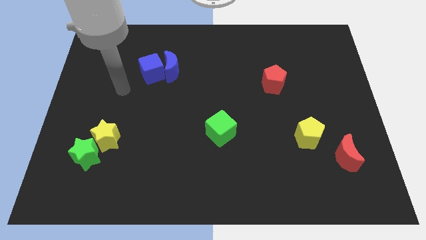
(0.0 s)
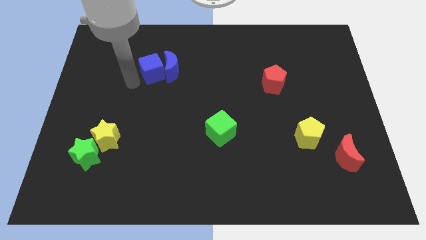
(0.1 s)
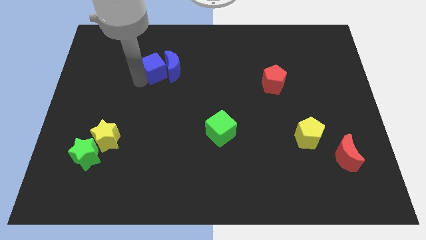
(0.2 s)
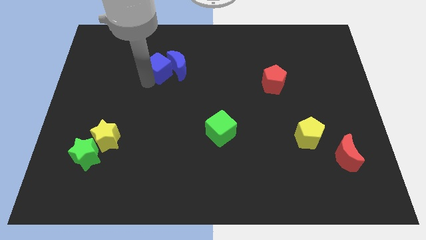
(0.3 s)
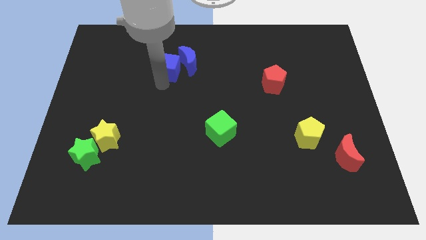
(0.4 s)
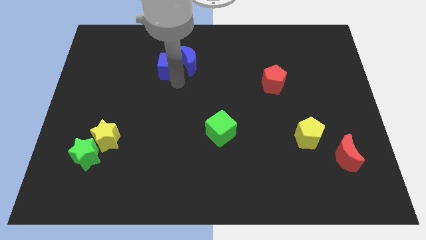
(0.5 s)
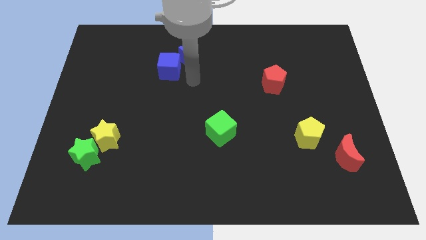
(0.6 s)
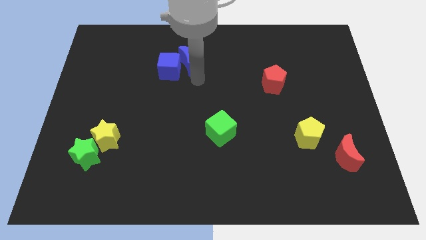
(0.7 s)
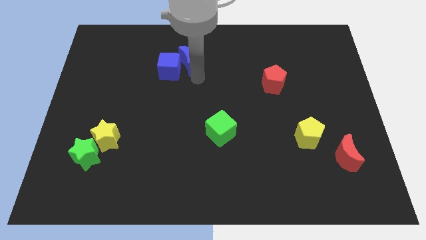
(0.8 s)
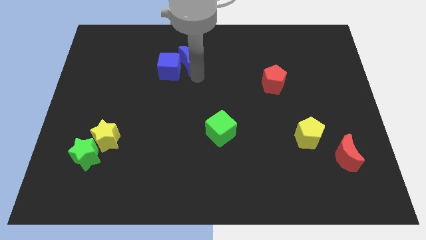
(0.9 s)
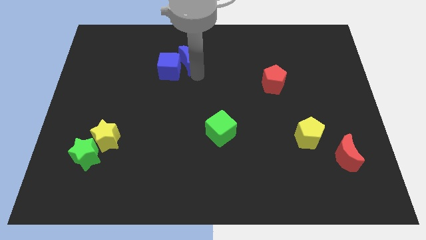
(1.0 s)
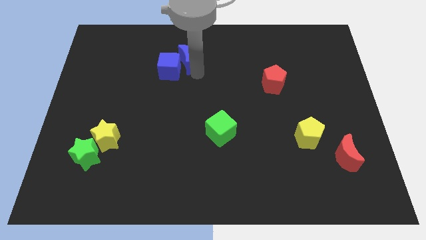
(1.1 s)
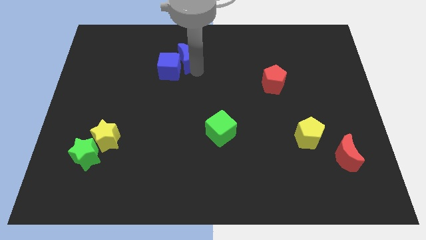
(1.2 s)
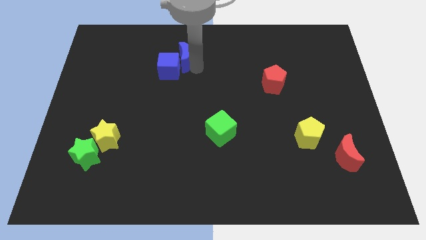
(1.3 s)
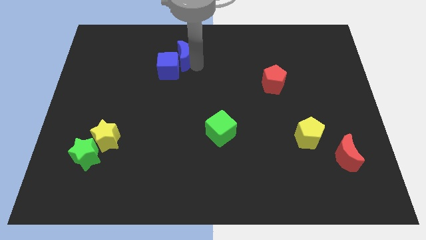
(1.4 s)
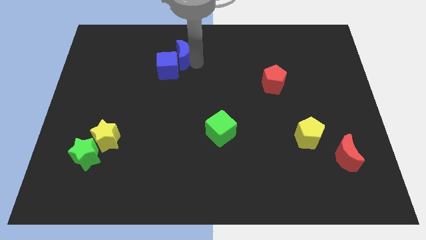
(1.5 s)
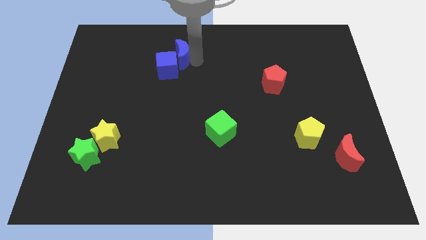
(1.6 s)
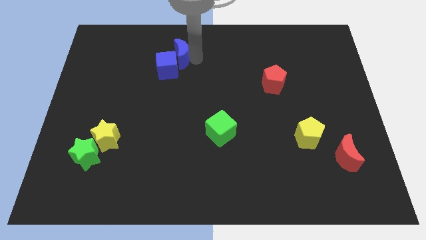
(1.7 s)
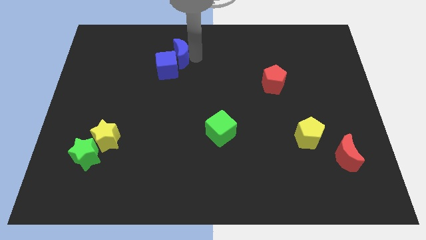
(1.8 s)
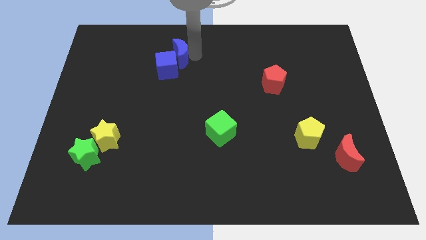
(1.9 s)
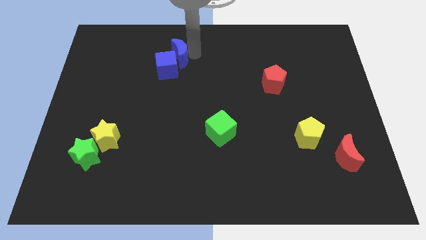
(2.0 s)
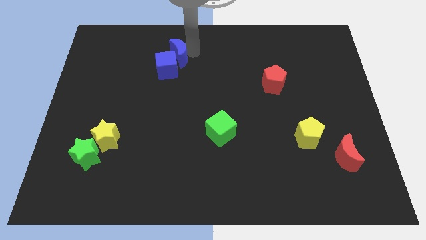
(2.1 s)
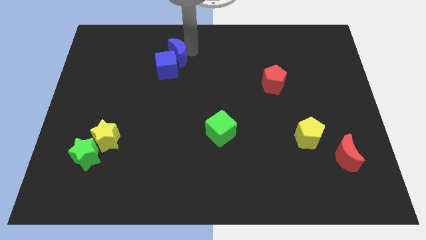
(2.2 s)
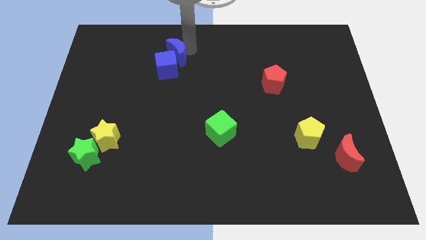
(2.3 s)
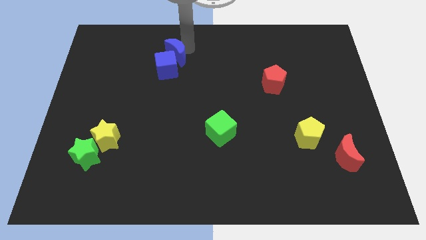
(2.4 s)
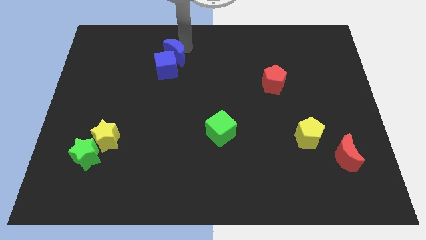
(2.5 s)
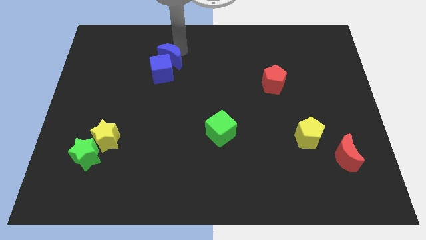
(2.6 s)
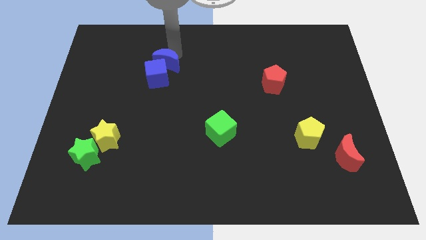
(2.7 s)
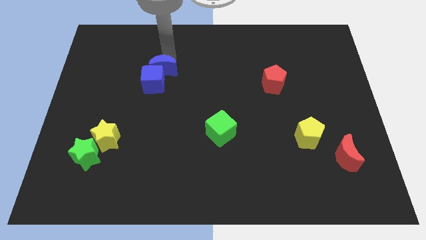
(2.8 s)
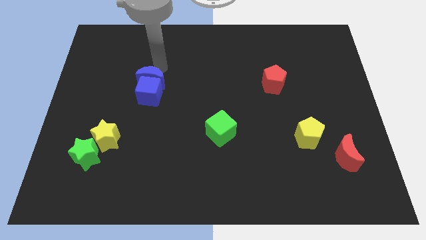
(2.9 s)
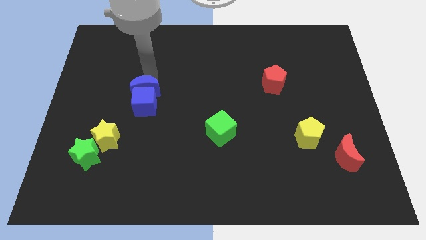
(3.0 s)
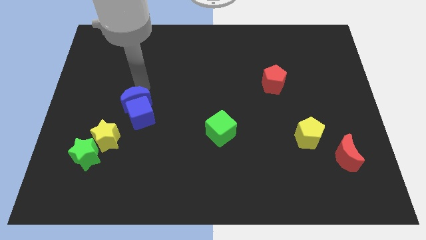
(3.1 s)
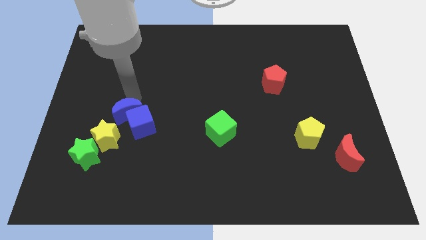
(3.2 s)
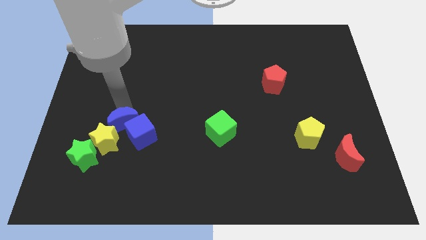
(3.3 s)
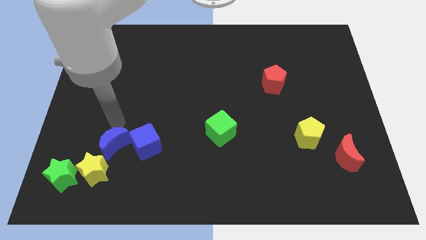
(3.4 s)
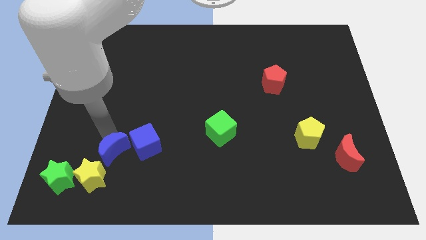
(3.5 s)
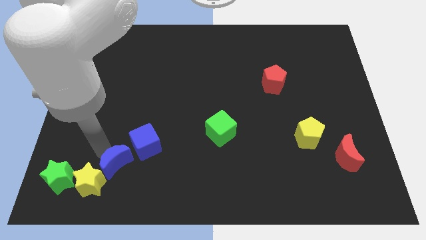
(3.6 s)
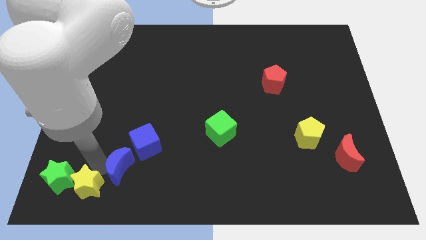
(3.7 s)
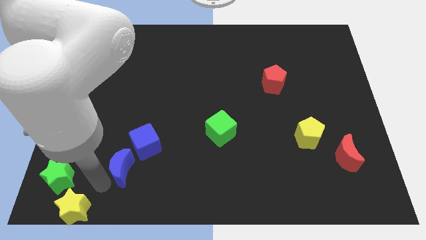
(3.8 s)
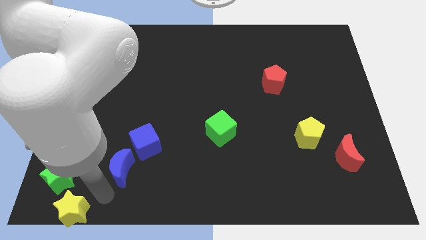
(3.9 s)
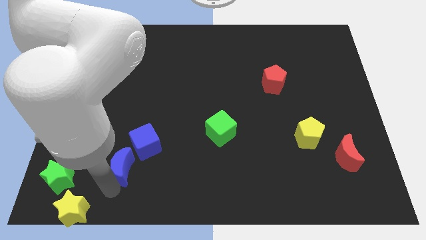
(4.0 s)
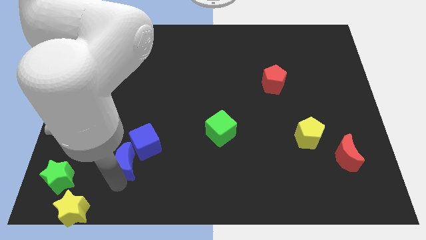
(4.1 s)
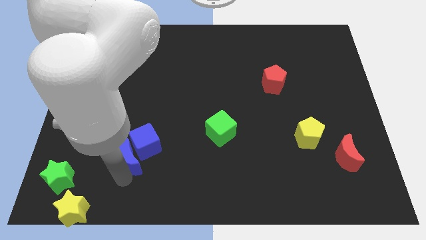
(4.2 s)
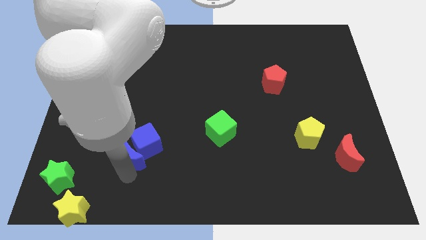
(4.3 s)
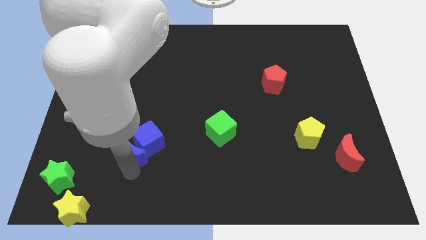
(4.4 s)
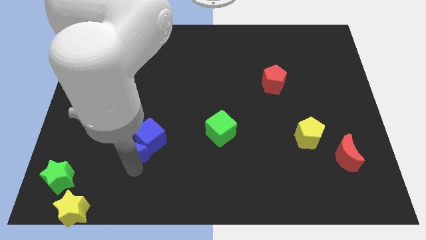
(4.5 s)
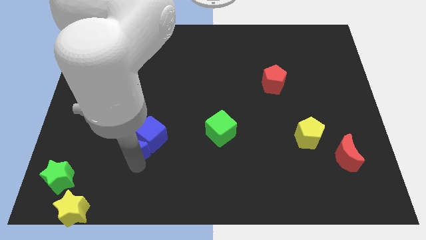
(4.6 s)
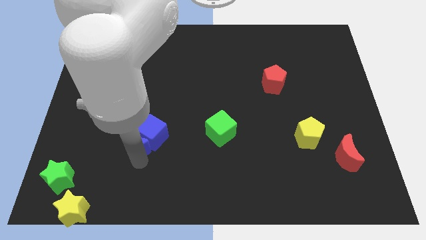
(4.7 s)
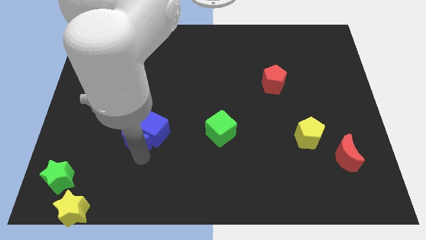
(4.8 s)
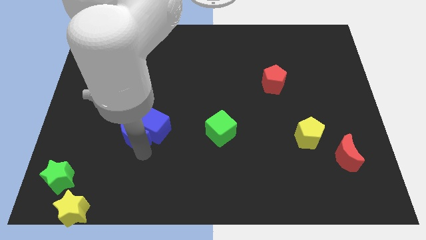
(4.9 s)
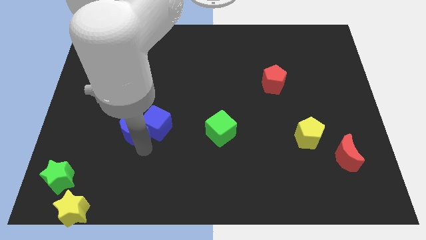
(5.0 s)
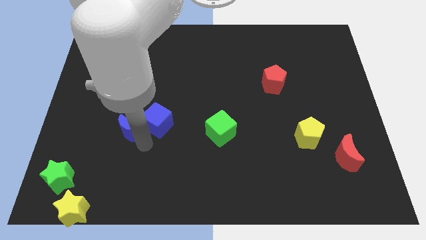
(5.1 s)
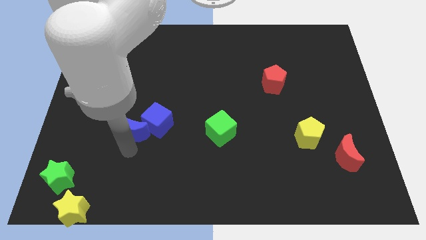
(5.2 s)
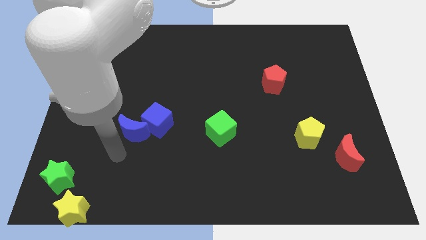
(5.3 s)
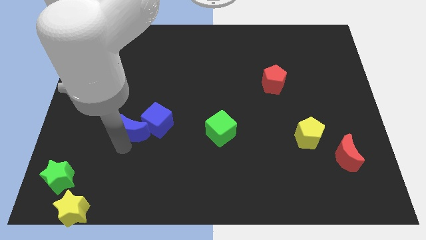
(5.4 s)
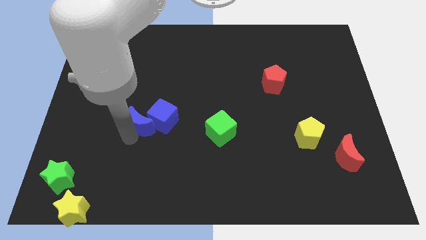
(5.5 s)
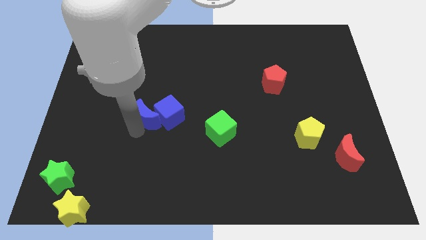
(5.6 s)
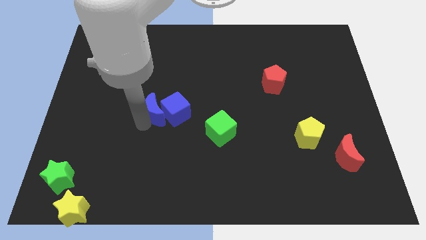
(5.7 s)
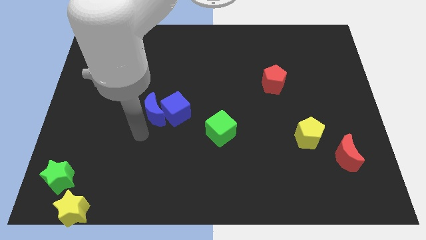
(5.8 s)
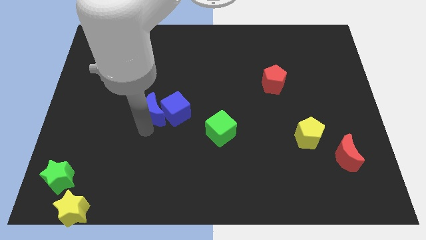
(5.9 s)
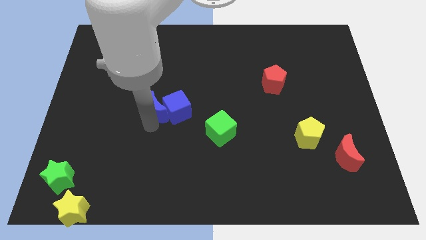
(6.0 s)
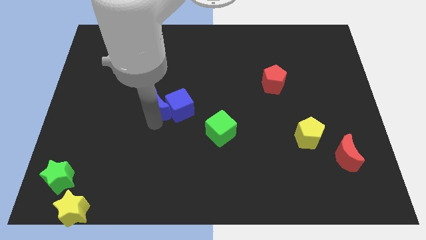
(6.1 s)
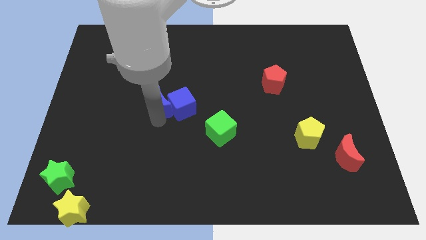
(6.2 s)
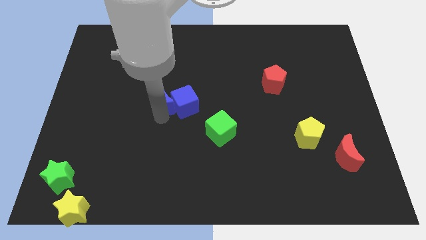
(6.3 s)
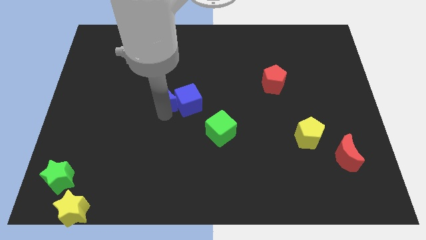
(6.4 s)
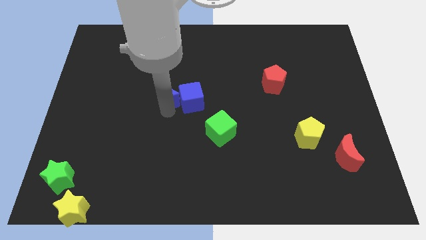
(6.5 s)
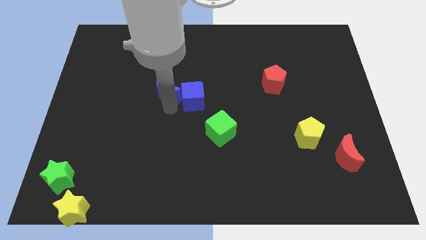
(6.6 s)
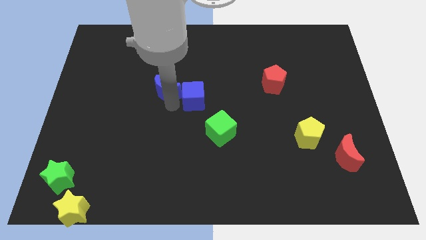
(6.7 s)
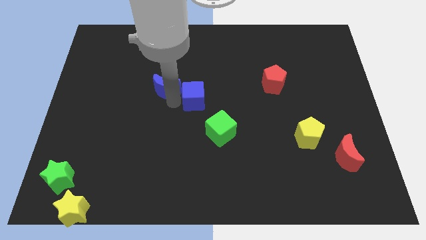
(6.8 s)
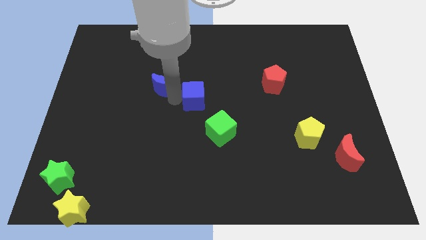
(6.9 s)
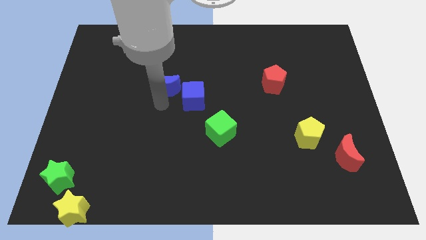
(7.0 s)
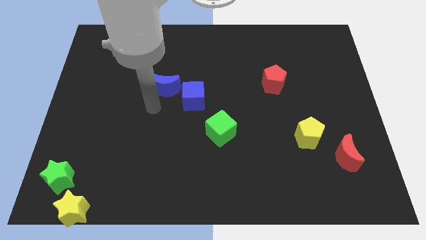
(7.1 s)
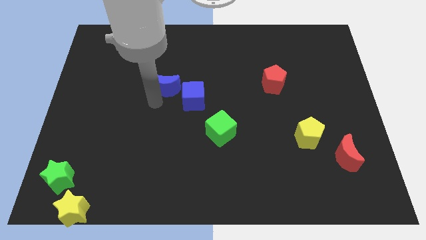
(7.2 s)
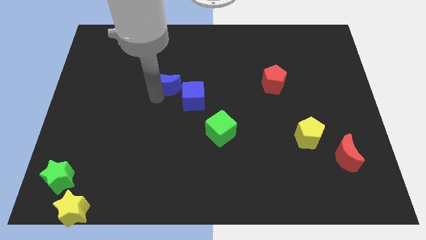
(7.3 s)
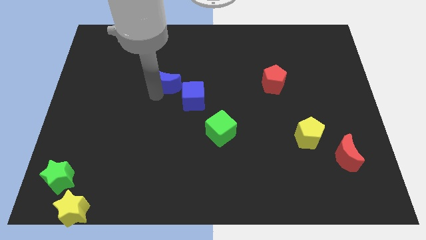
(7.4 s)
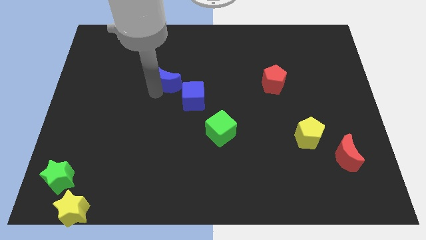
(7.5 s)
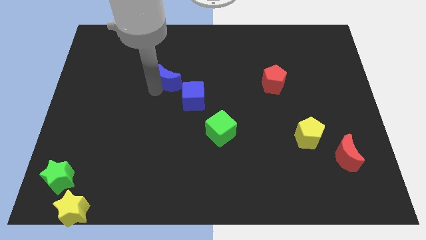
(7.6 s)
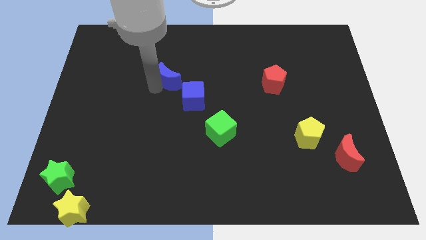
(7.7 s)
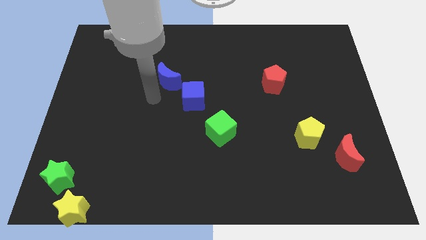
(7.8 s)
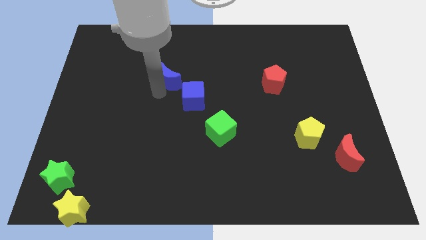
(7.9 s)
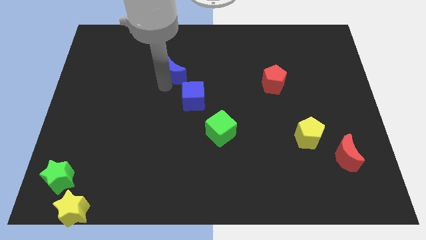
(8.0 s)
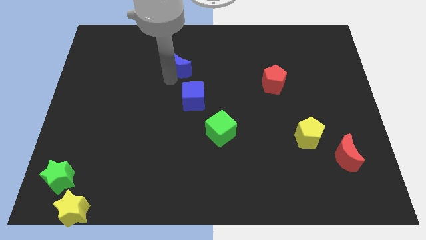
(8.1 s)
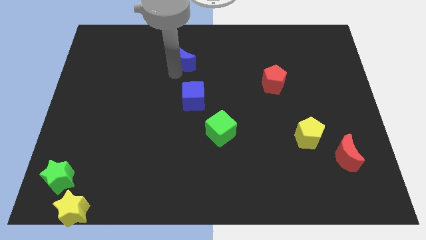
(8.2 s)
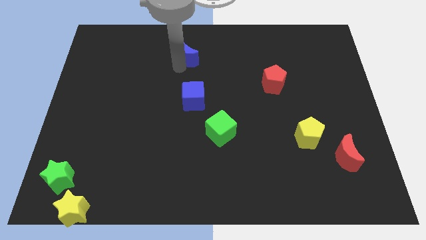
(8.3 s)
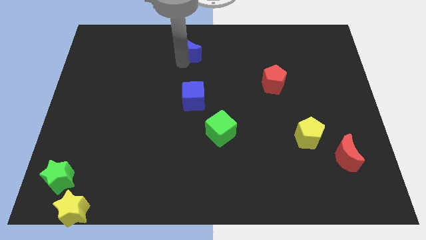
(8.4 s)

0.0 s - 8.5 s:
push the blue moon to the top side
